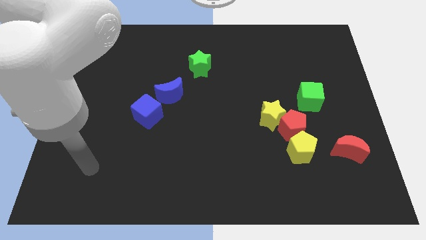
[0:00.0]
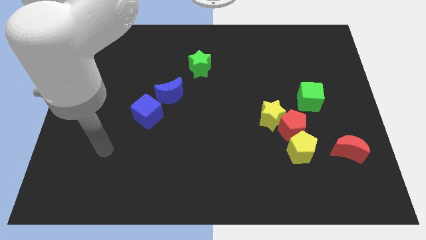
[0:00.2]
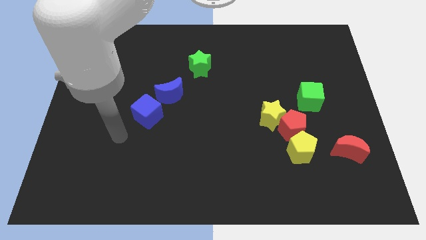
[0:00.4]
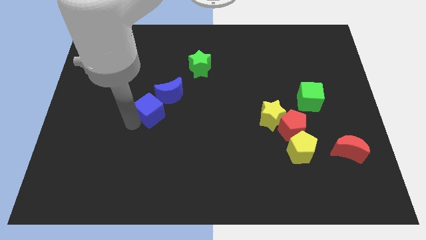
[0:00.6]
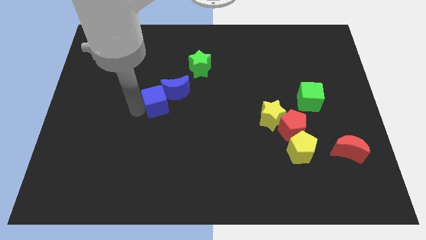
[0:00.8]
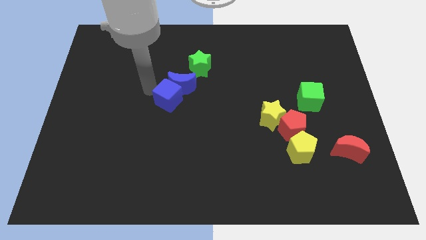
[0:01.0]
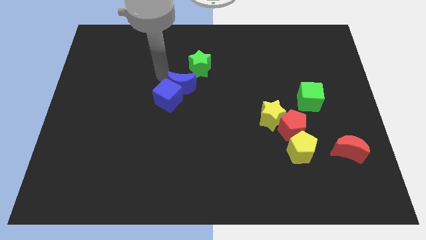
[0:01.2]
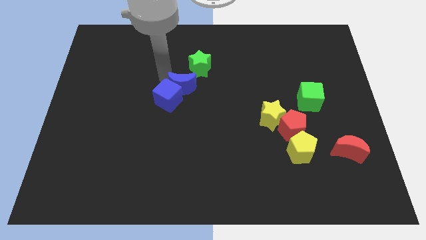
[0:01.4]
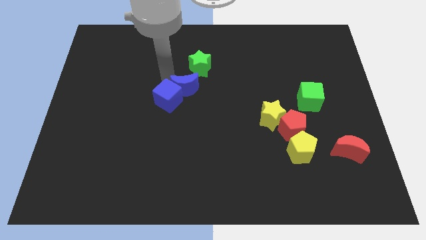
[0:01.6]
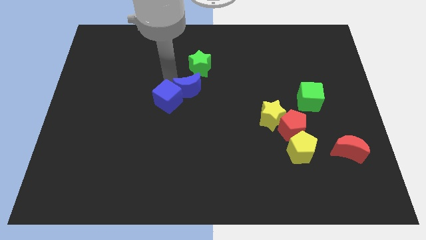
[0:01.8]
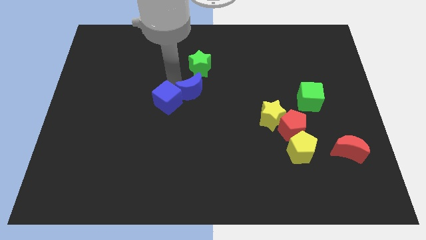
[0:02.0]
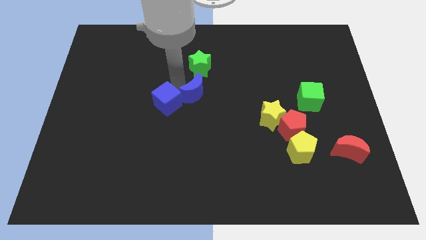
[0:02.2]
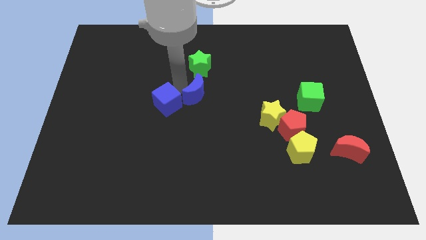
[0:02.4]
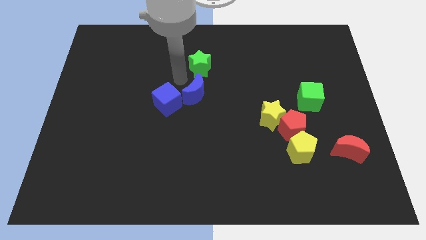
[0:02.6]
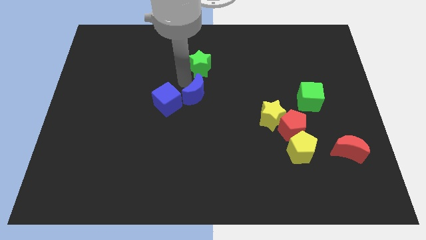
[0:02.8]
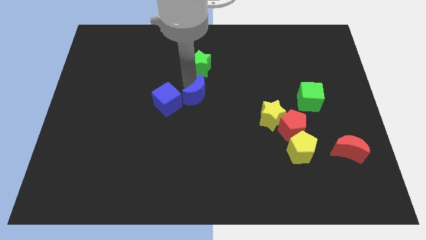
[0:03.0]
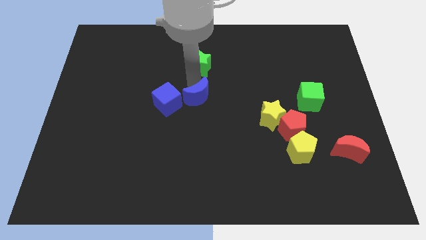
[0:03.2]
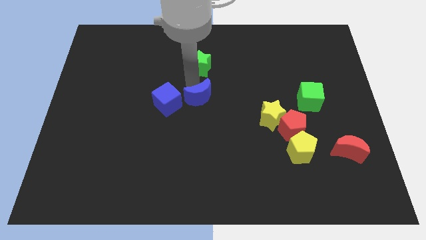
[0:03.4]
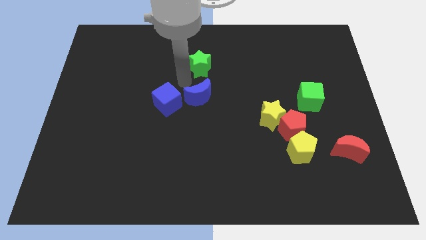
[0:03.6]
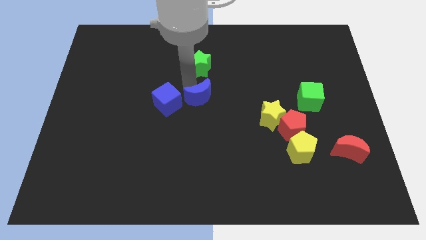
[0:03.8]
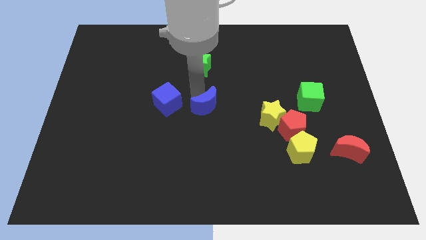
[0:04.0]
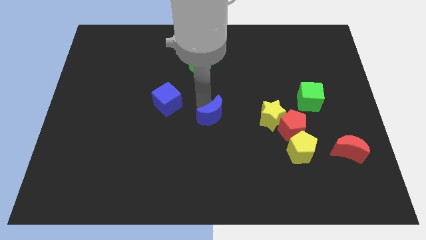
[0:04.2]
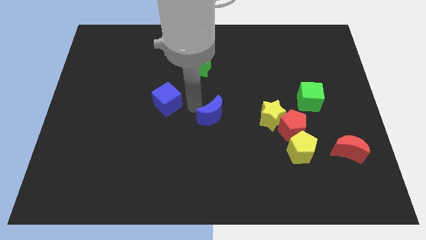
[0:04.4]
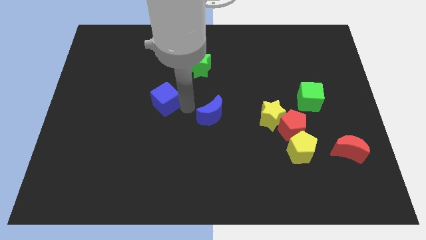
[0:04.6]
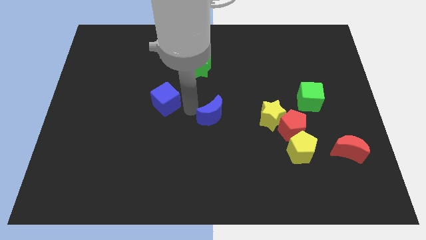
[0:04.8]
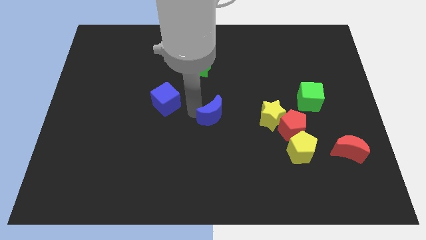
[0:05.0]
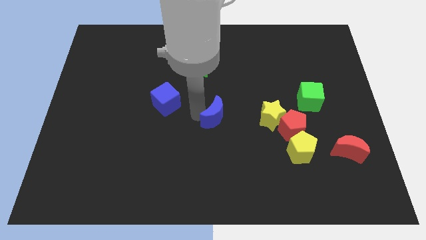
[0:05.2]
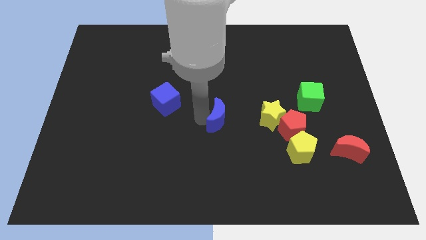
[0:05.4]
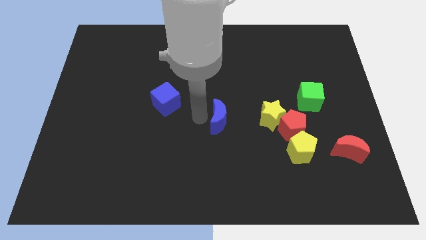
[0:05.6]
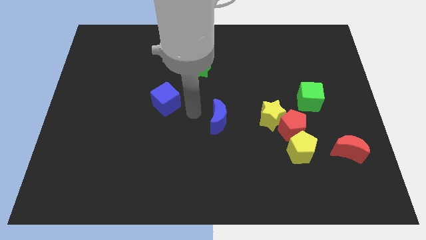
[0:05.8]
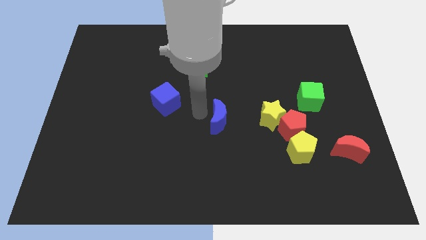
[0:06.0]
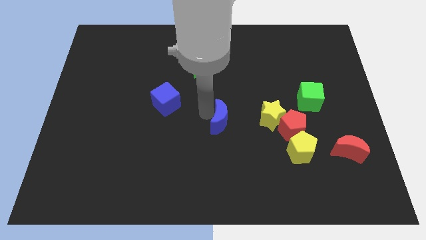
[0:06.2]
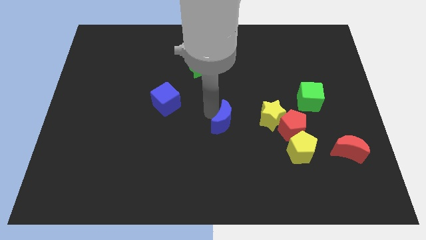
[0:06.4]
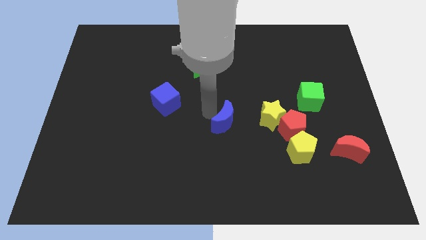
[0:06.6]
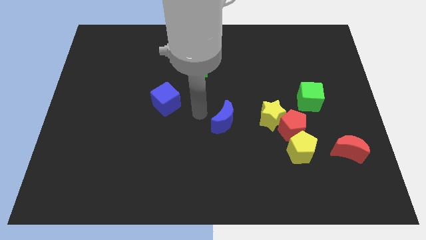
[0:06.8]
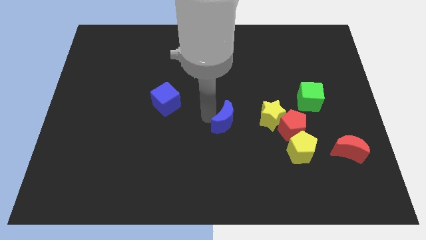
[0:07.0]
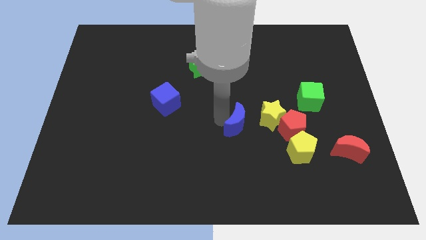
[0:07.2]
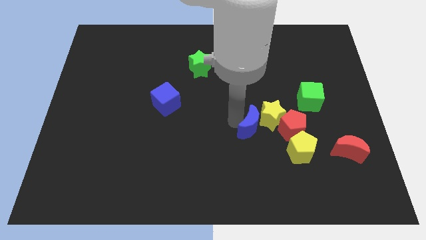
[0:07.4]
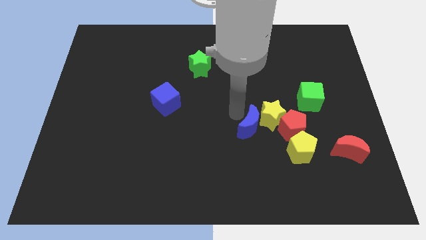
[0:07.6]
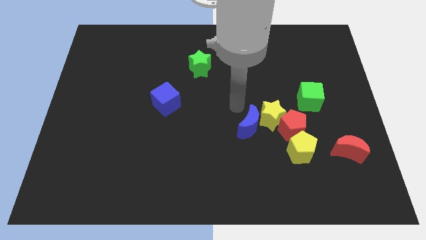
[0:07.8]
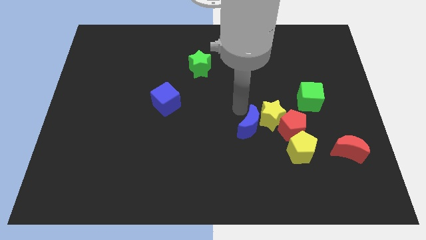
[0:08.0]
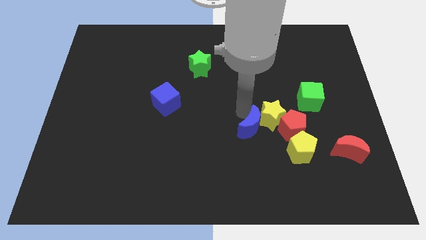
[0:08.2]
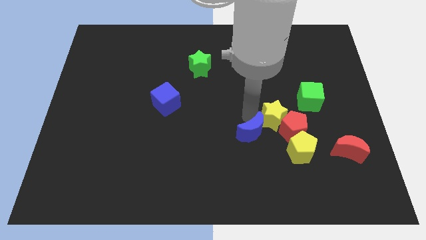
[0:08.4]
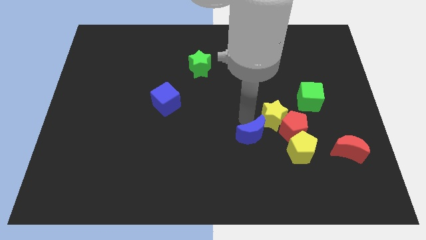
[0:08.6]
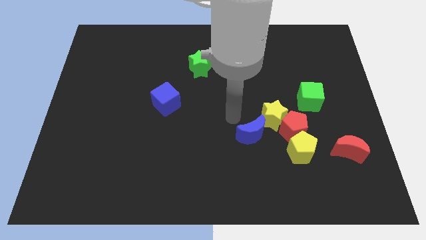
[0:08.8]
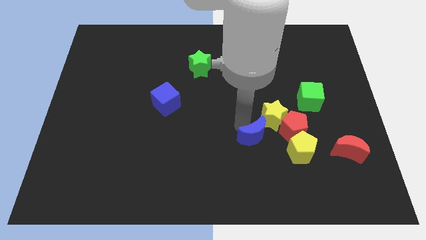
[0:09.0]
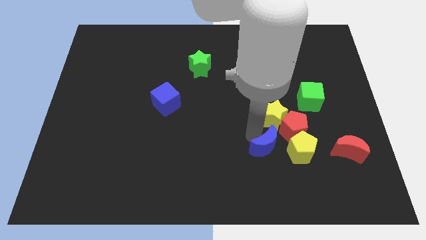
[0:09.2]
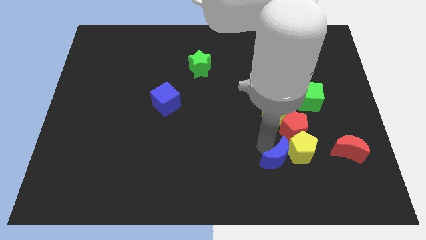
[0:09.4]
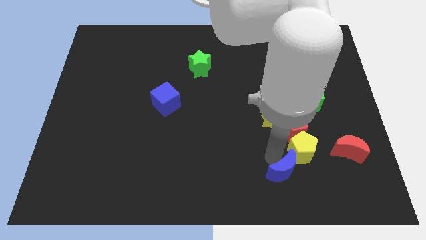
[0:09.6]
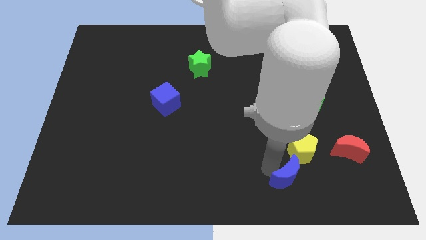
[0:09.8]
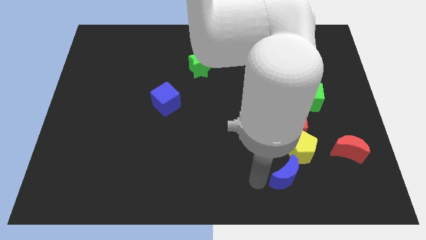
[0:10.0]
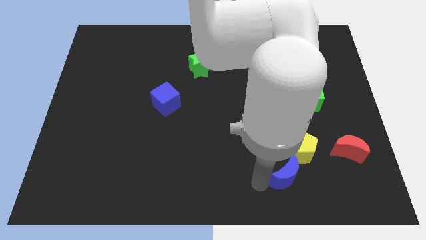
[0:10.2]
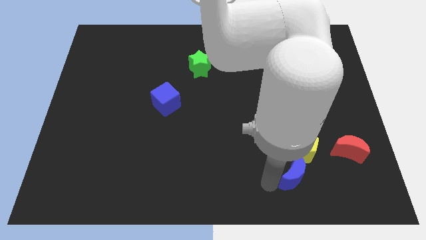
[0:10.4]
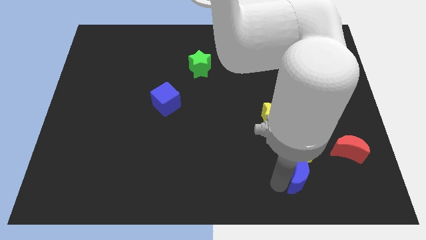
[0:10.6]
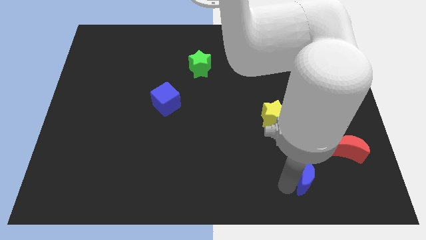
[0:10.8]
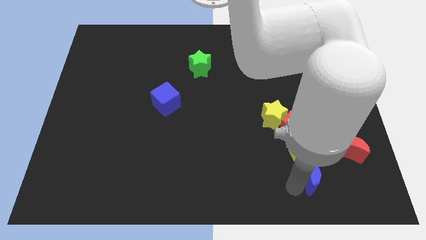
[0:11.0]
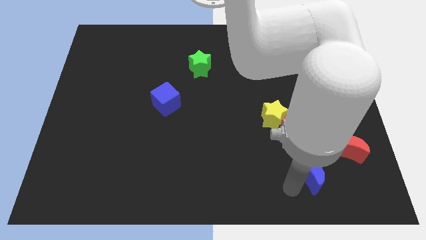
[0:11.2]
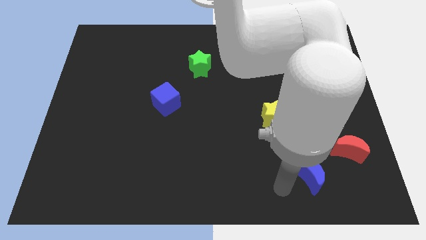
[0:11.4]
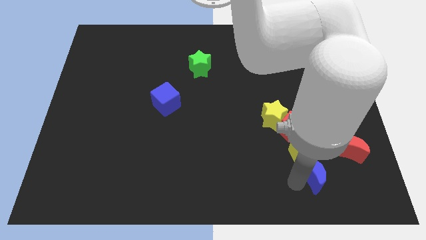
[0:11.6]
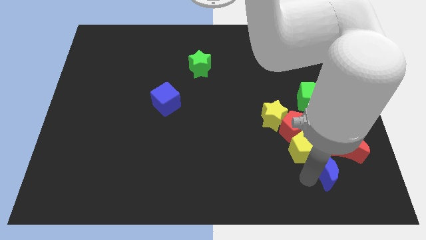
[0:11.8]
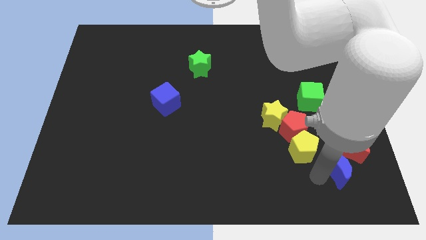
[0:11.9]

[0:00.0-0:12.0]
slide the blue moon to the red moon

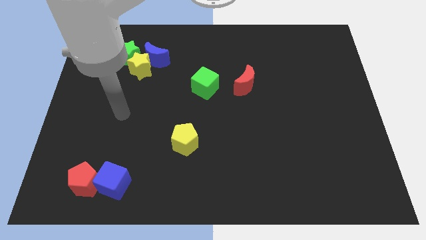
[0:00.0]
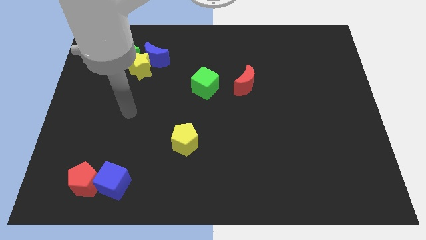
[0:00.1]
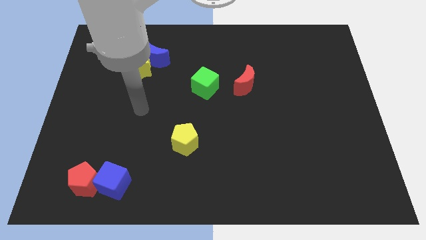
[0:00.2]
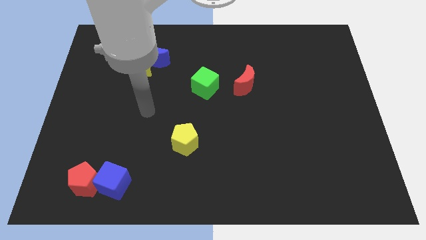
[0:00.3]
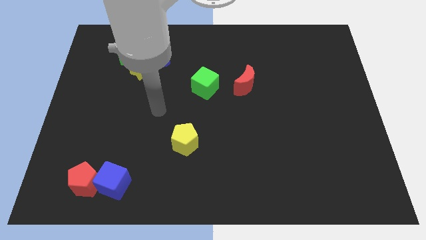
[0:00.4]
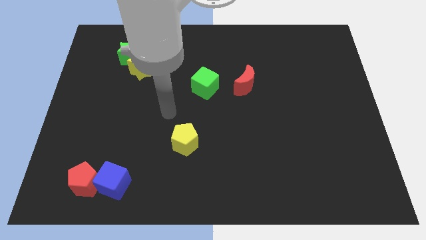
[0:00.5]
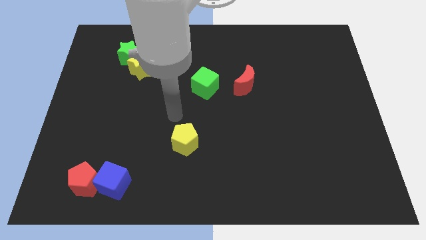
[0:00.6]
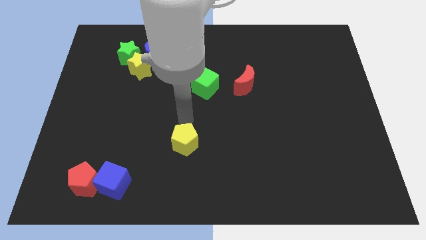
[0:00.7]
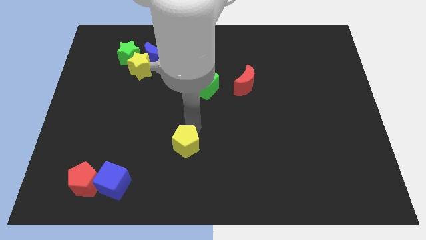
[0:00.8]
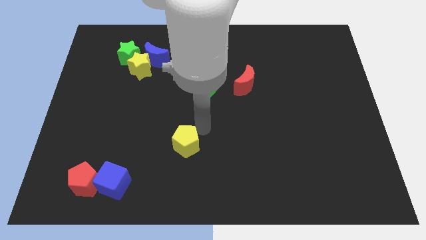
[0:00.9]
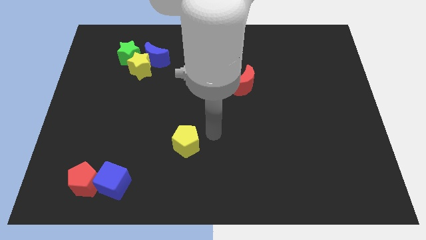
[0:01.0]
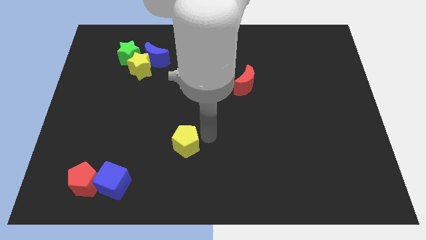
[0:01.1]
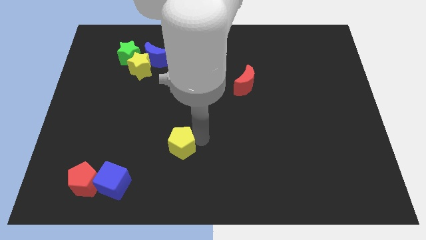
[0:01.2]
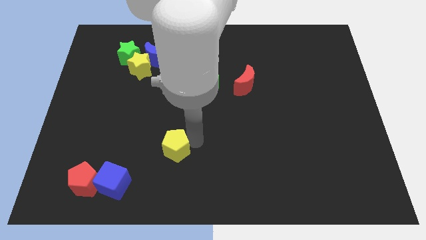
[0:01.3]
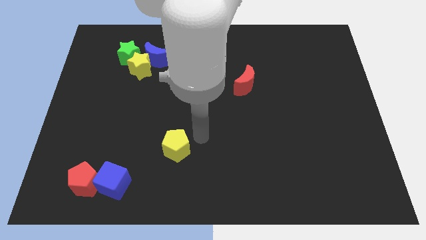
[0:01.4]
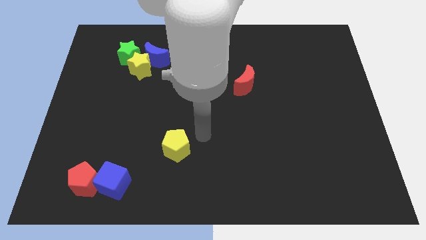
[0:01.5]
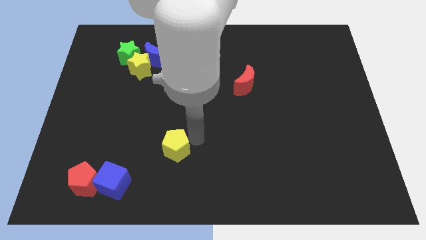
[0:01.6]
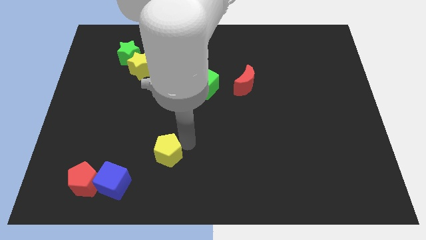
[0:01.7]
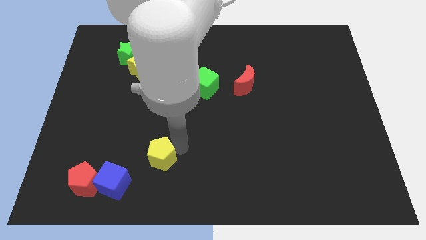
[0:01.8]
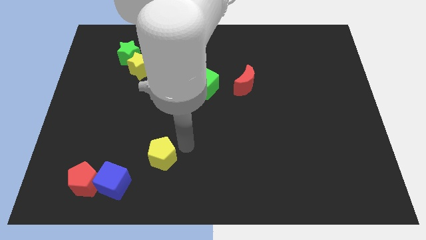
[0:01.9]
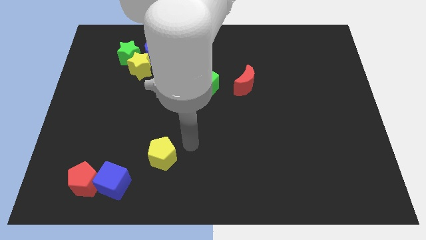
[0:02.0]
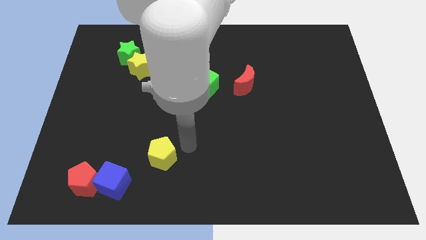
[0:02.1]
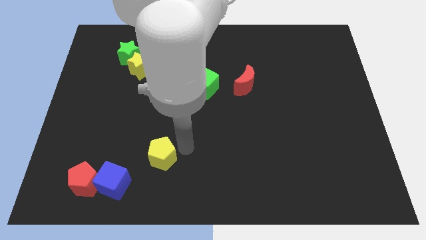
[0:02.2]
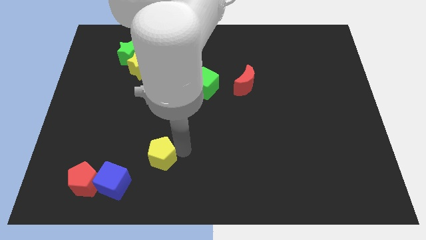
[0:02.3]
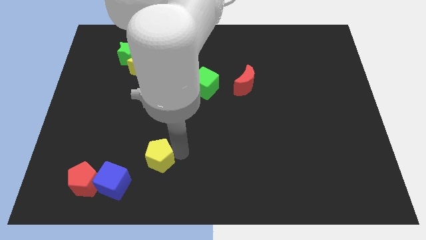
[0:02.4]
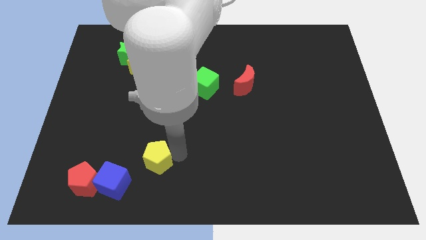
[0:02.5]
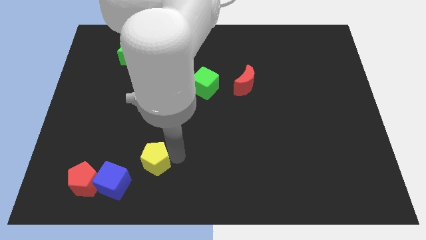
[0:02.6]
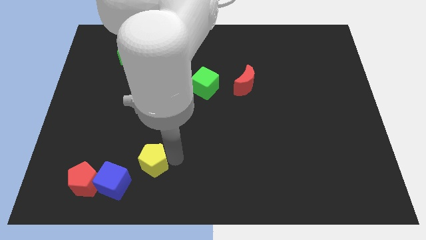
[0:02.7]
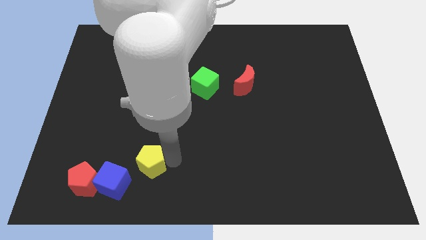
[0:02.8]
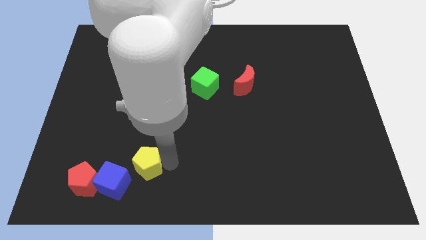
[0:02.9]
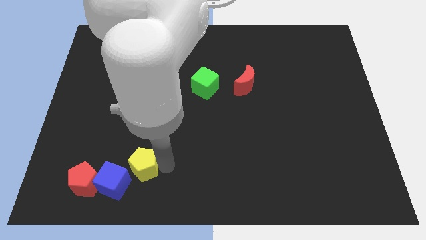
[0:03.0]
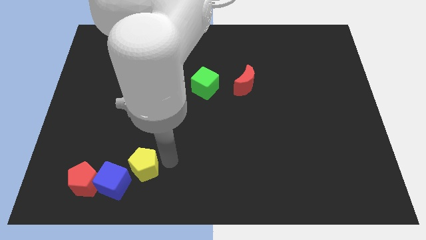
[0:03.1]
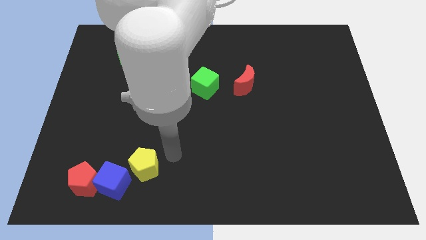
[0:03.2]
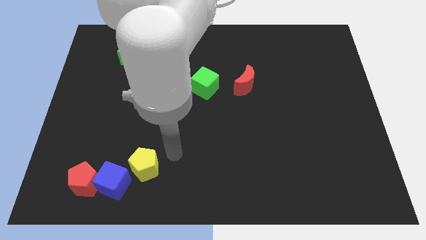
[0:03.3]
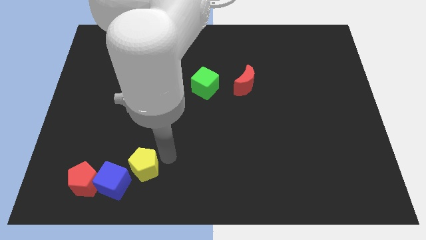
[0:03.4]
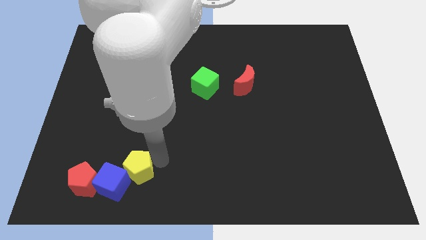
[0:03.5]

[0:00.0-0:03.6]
slide the yellow pentagon close to the blue cube
